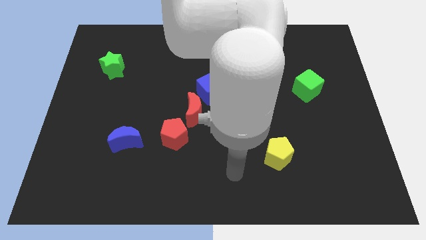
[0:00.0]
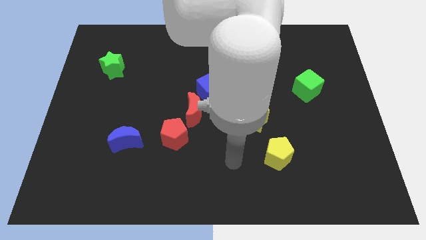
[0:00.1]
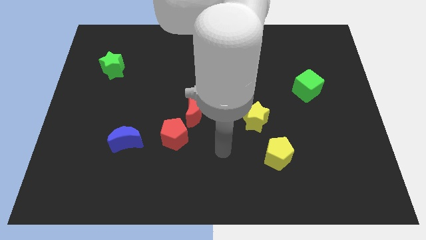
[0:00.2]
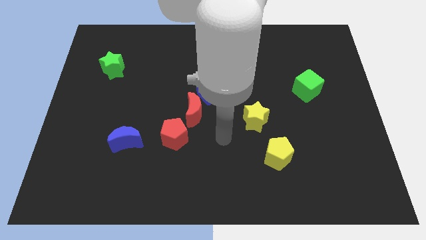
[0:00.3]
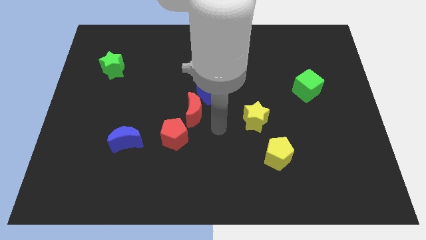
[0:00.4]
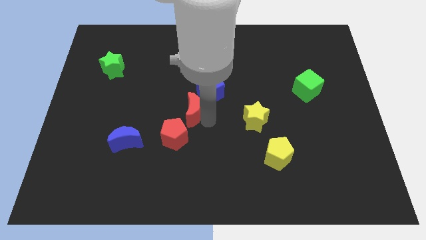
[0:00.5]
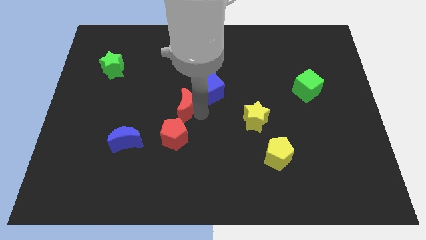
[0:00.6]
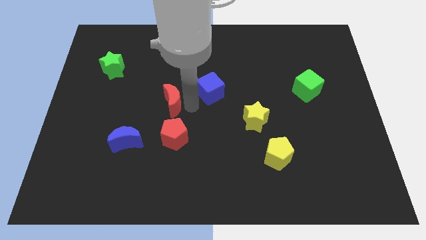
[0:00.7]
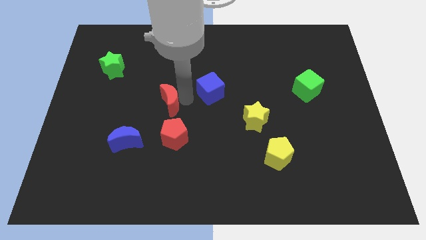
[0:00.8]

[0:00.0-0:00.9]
pull the blue cube apart from the red moon

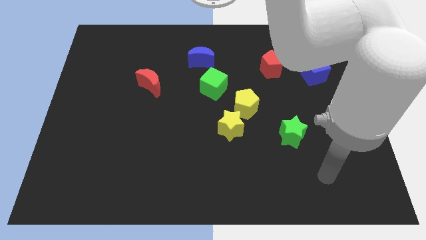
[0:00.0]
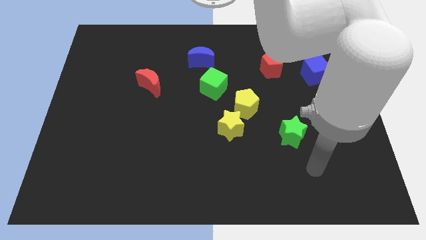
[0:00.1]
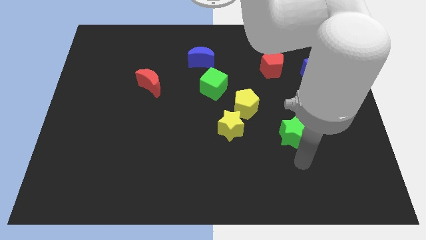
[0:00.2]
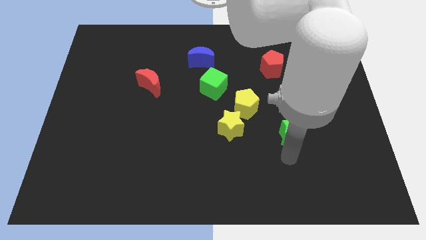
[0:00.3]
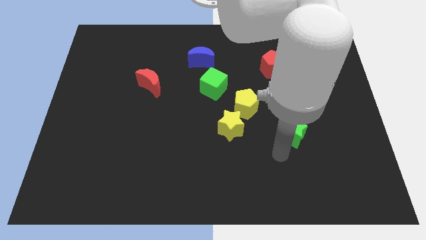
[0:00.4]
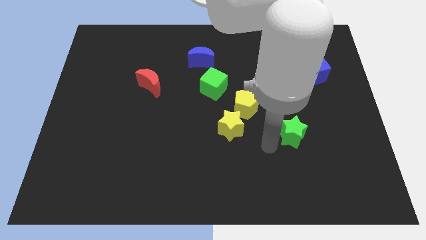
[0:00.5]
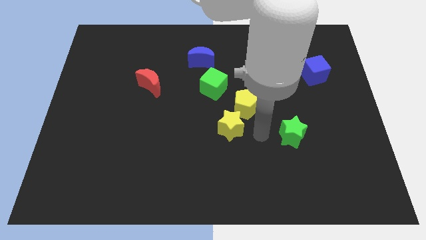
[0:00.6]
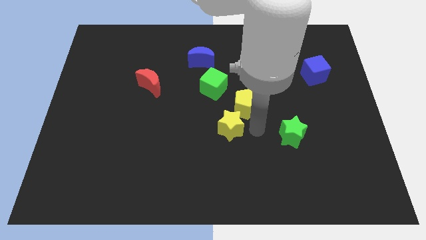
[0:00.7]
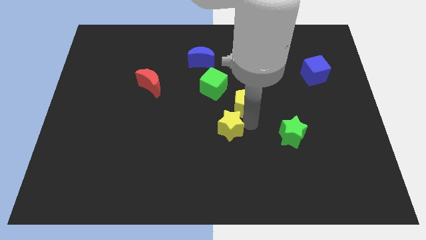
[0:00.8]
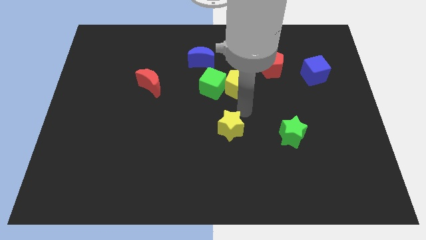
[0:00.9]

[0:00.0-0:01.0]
move the yellow star away from the yellow pentagon

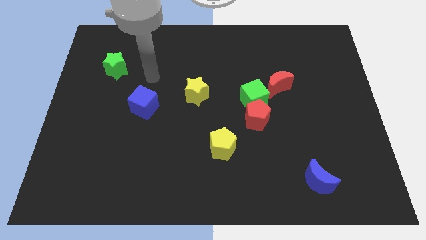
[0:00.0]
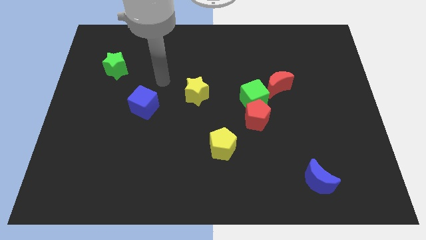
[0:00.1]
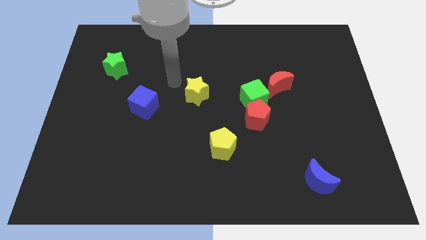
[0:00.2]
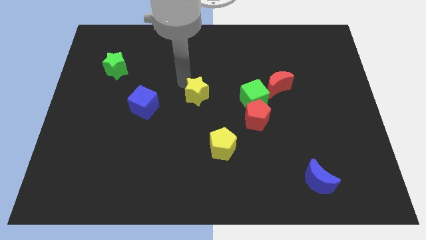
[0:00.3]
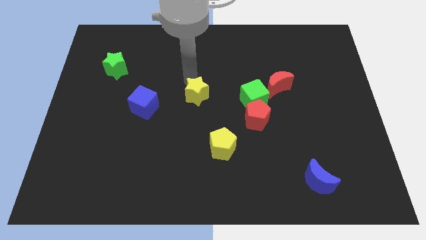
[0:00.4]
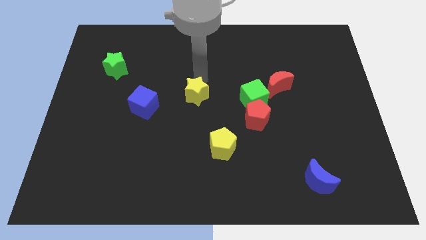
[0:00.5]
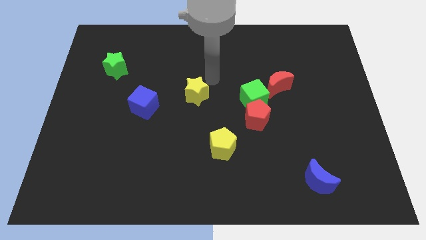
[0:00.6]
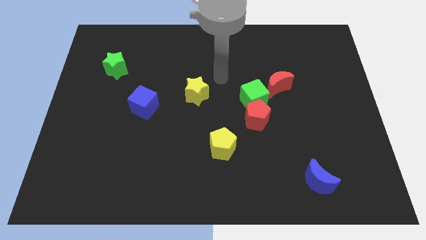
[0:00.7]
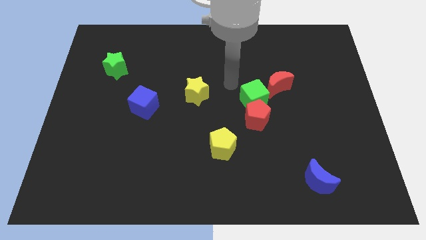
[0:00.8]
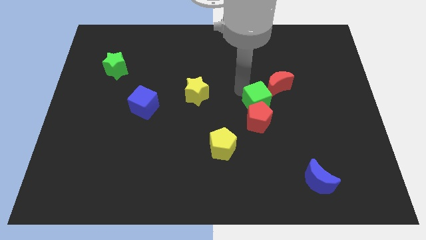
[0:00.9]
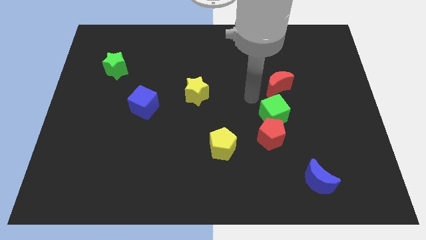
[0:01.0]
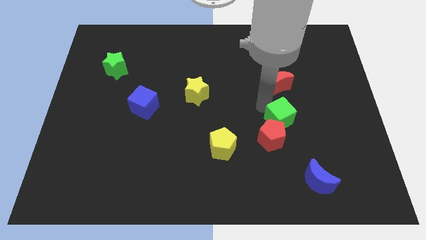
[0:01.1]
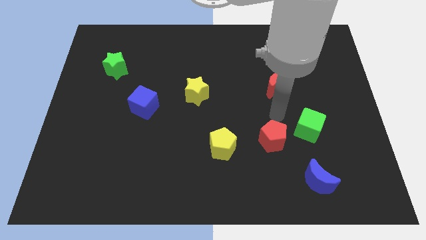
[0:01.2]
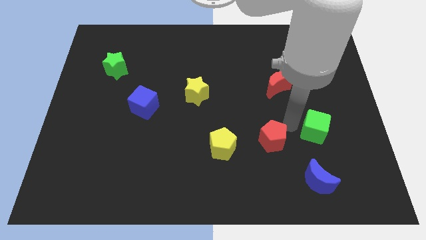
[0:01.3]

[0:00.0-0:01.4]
pull the red pentagon apart from the green cube

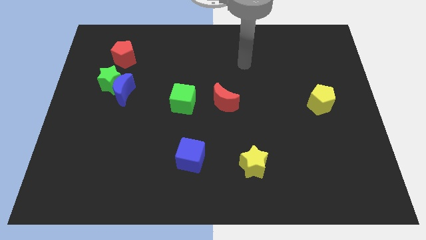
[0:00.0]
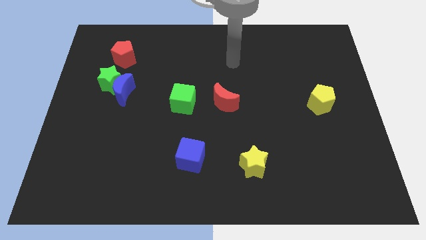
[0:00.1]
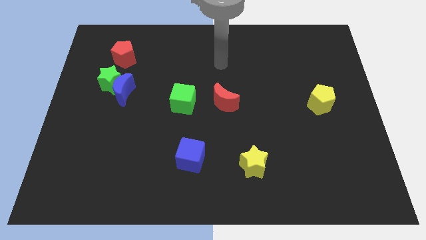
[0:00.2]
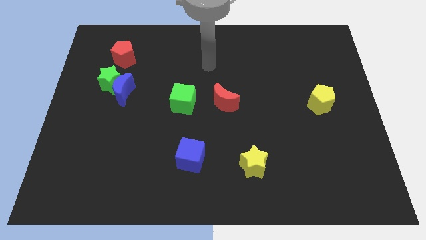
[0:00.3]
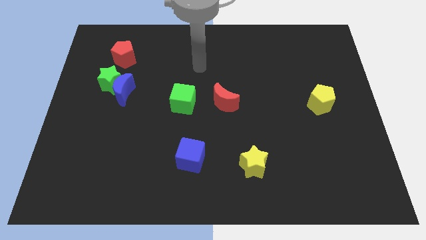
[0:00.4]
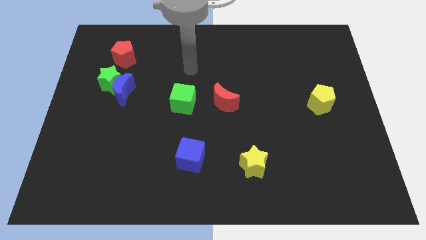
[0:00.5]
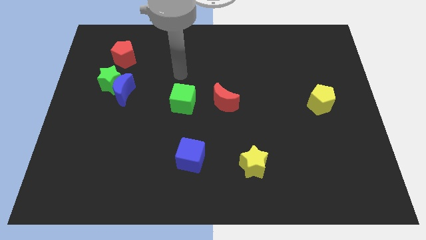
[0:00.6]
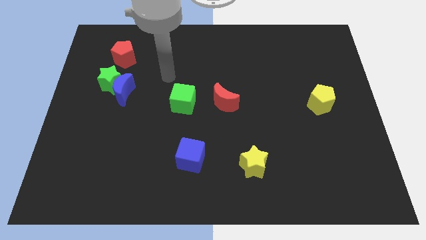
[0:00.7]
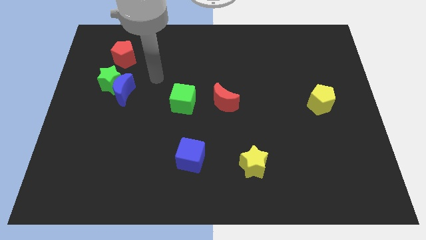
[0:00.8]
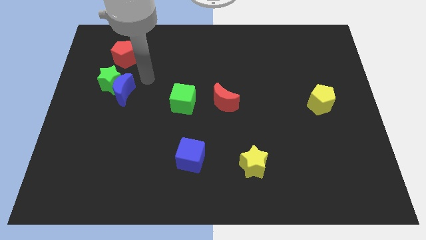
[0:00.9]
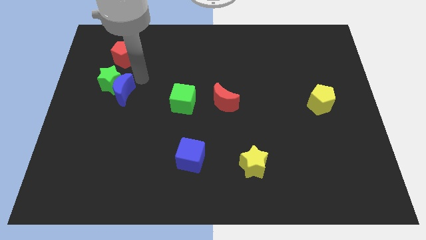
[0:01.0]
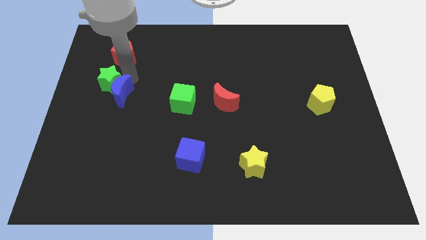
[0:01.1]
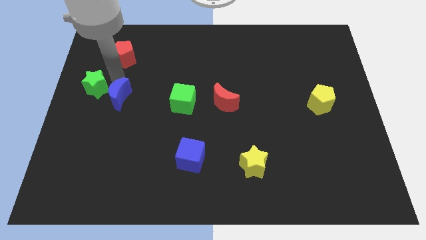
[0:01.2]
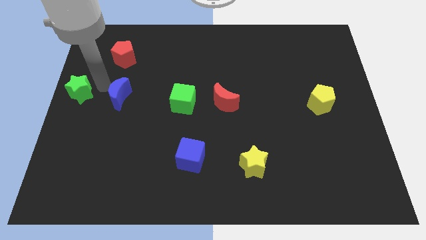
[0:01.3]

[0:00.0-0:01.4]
move the blue moon away from the green star

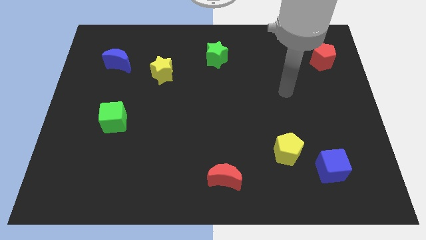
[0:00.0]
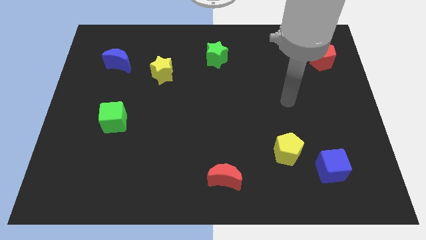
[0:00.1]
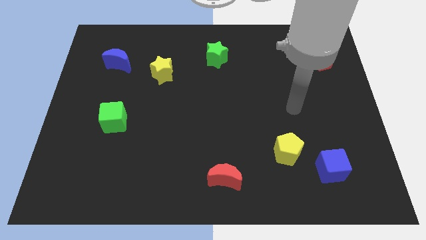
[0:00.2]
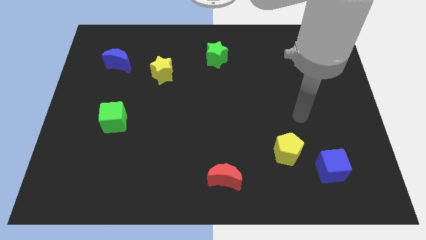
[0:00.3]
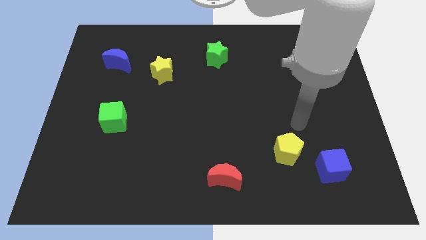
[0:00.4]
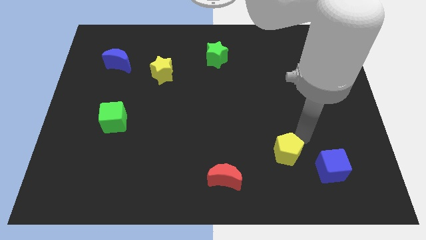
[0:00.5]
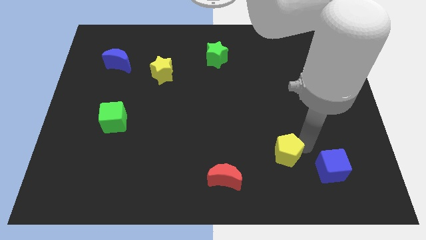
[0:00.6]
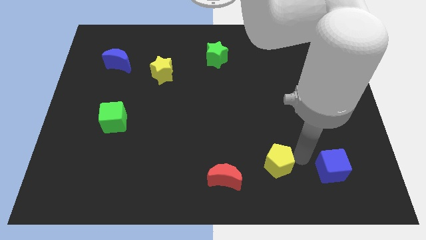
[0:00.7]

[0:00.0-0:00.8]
separate the blue cube from the yellow pentagon

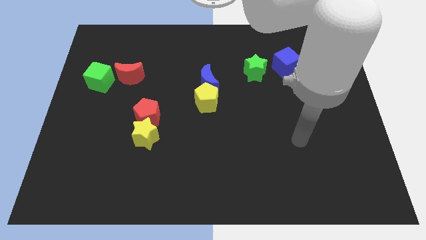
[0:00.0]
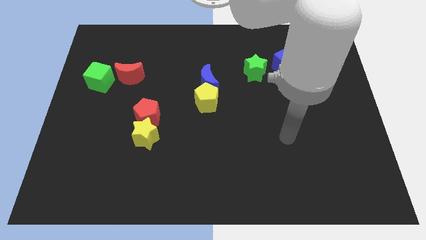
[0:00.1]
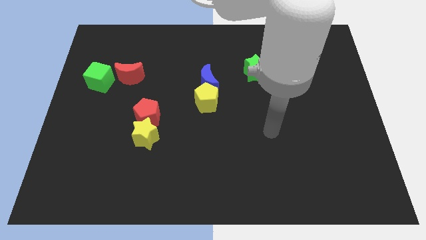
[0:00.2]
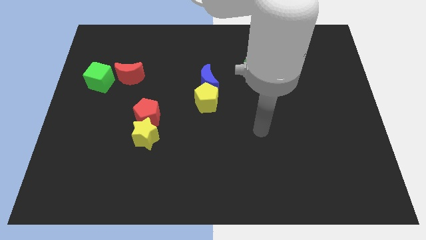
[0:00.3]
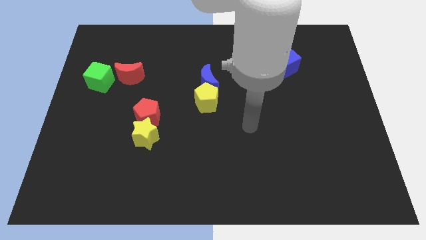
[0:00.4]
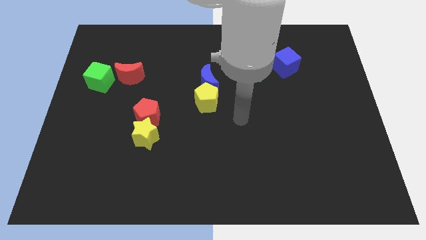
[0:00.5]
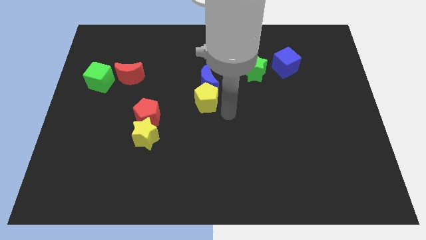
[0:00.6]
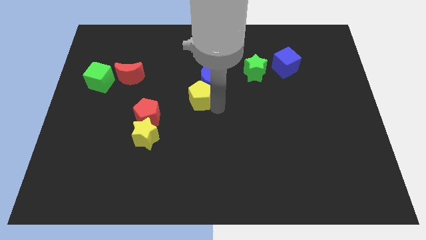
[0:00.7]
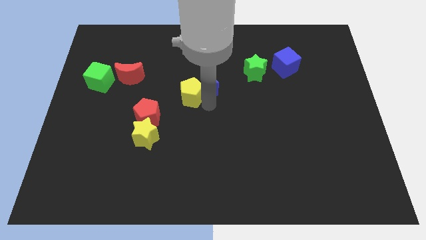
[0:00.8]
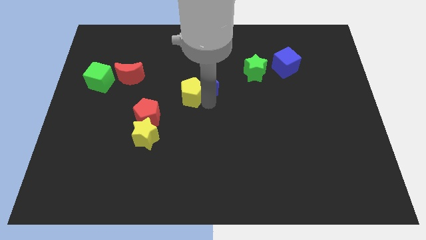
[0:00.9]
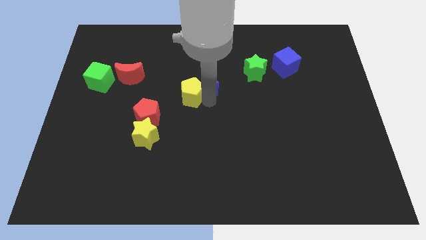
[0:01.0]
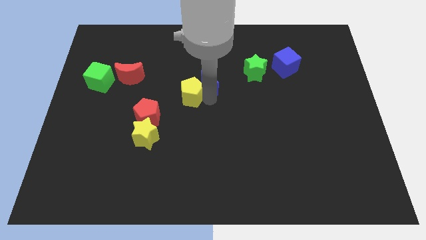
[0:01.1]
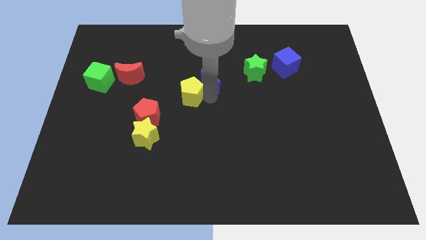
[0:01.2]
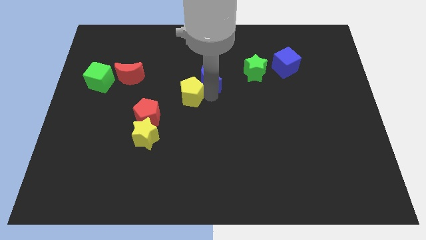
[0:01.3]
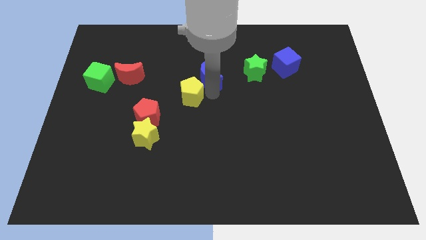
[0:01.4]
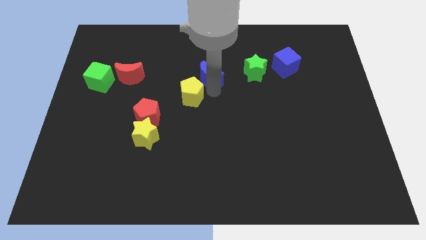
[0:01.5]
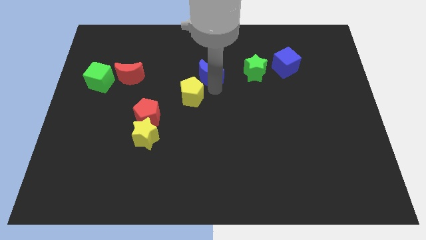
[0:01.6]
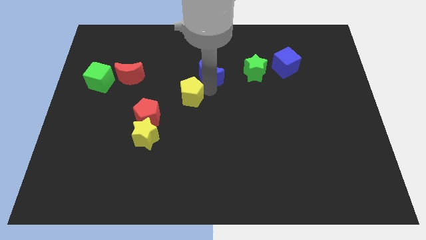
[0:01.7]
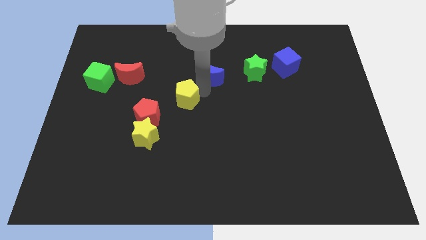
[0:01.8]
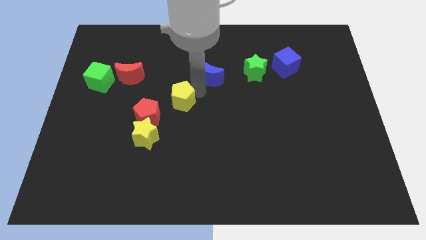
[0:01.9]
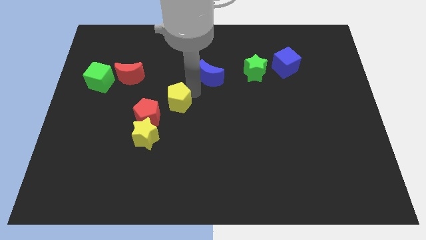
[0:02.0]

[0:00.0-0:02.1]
pull the blue moon apart from the yellow pentagon

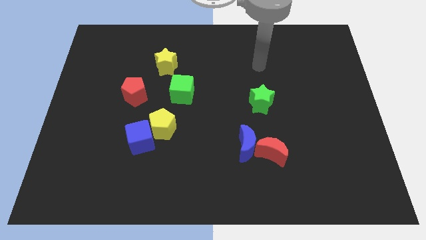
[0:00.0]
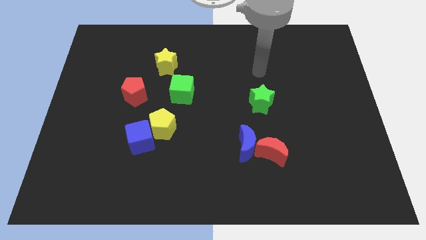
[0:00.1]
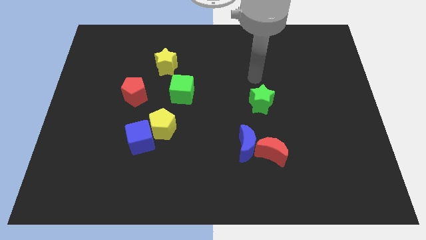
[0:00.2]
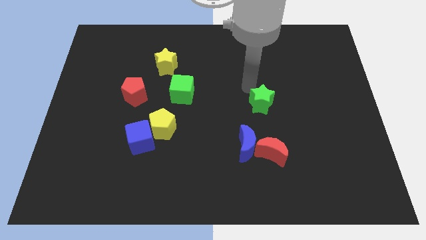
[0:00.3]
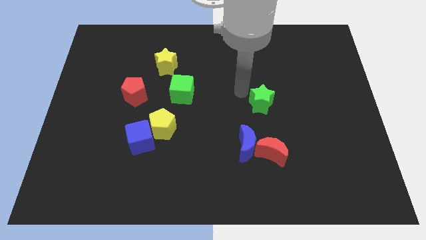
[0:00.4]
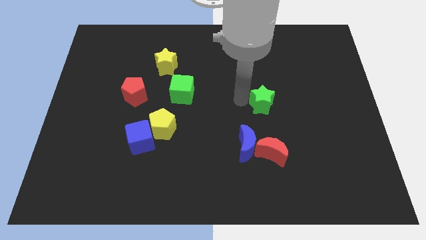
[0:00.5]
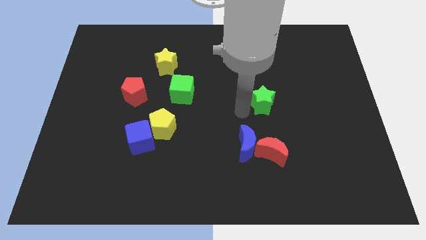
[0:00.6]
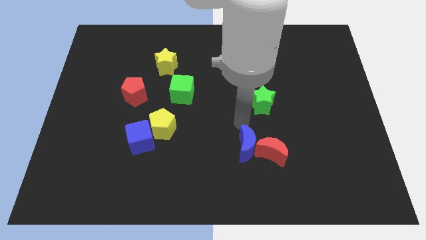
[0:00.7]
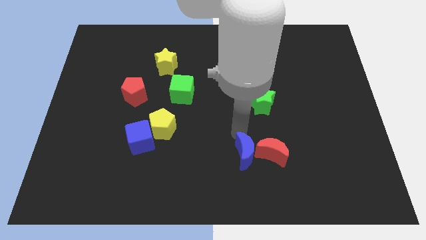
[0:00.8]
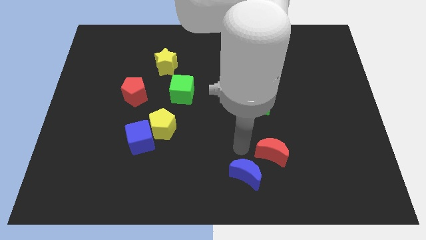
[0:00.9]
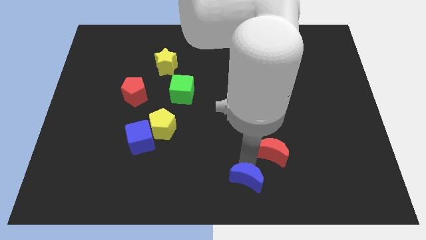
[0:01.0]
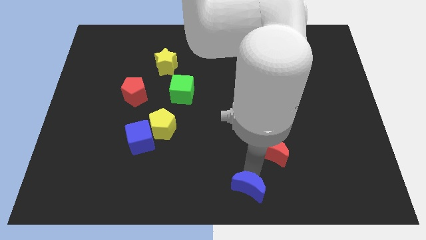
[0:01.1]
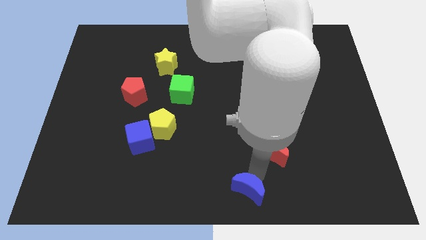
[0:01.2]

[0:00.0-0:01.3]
separate the red moon from the blue moon

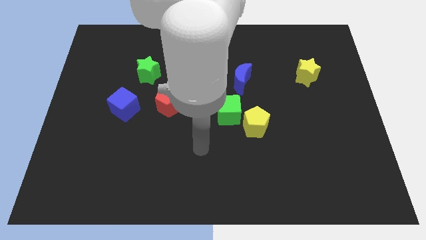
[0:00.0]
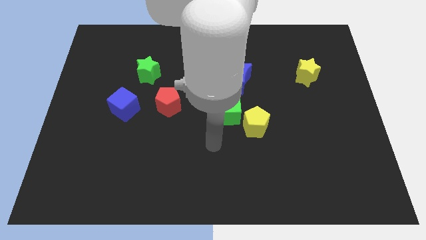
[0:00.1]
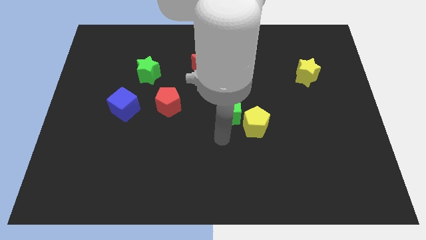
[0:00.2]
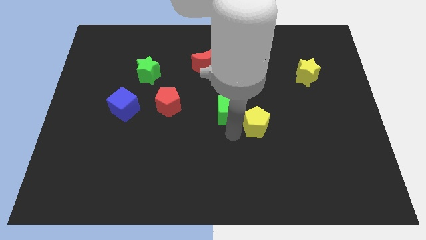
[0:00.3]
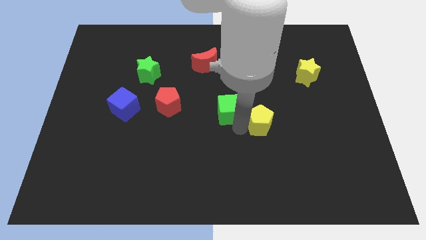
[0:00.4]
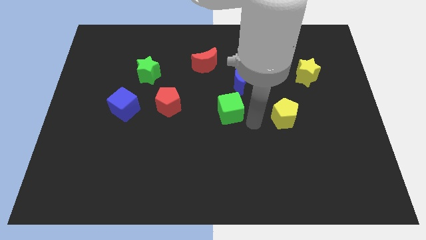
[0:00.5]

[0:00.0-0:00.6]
pull the green cube apart from the yellow pentagon
